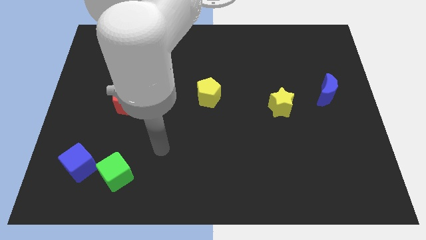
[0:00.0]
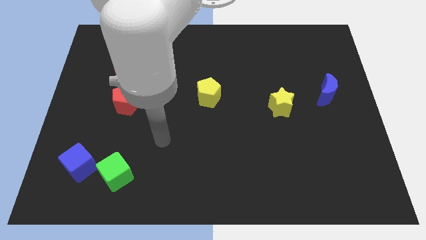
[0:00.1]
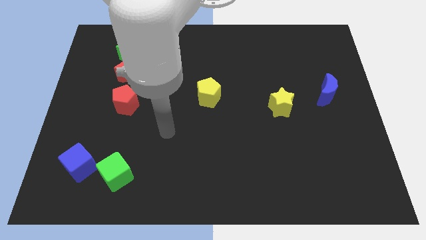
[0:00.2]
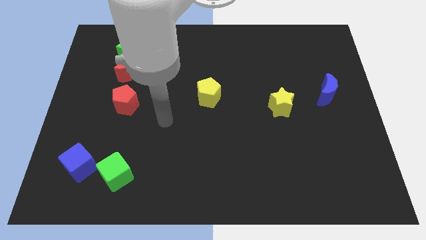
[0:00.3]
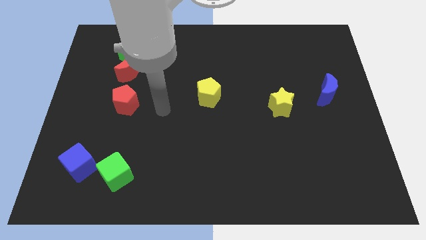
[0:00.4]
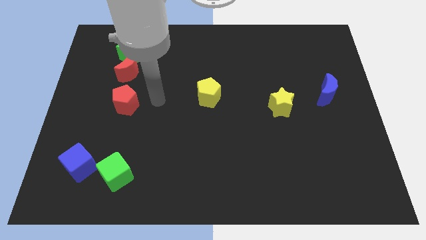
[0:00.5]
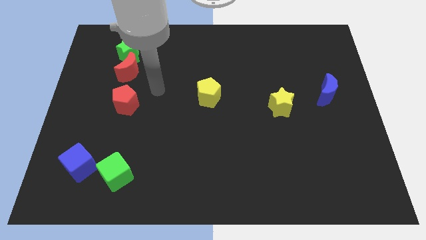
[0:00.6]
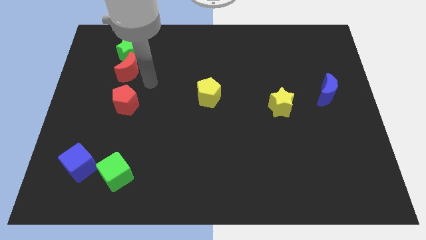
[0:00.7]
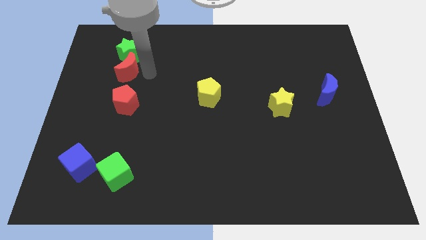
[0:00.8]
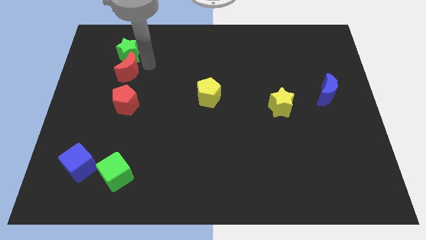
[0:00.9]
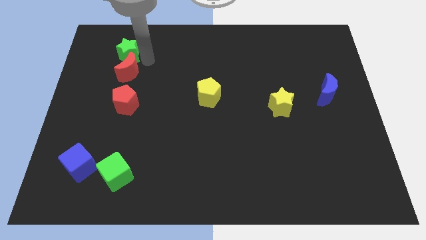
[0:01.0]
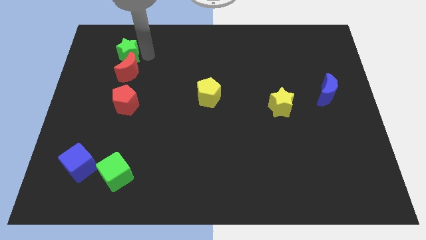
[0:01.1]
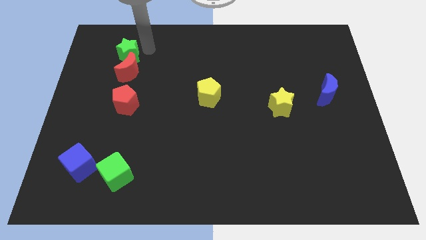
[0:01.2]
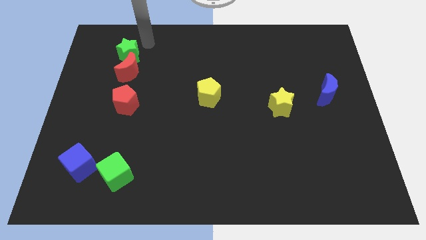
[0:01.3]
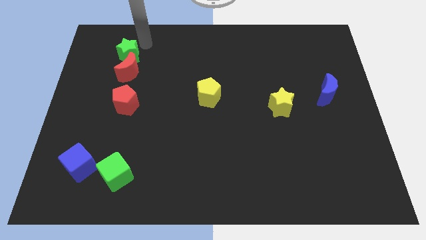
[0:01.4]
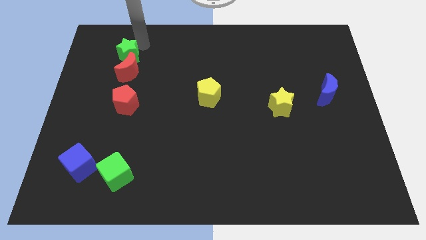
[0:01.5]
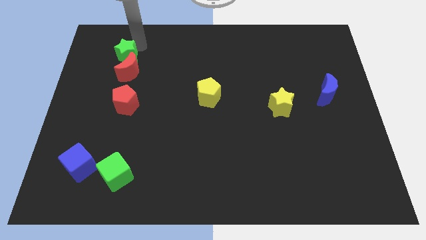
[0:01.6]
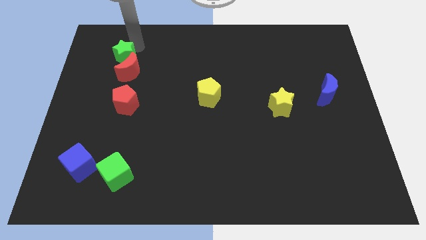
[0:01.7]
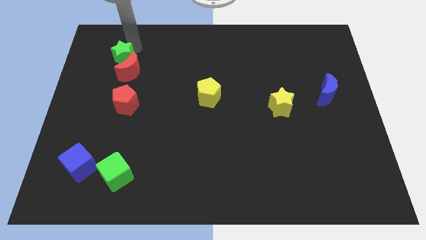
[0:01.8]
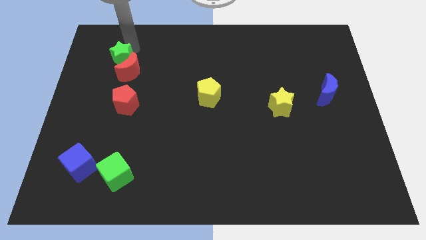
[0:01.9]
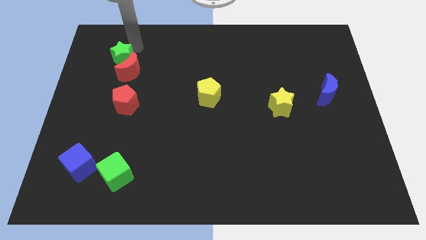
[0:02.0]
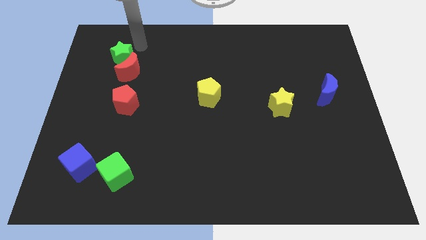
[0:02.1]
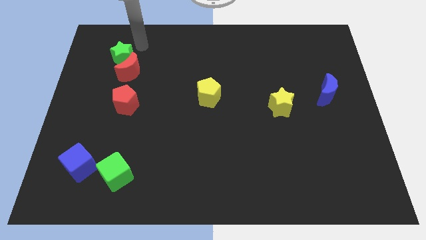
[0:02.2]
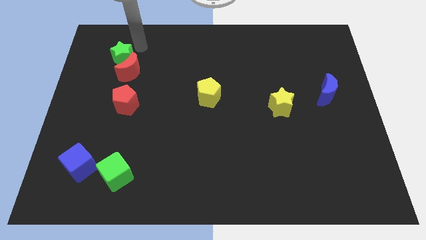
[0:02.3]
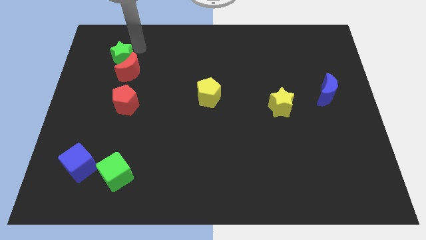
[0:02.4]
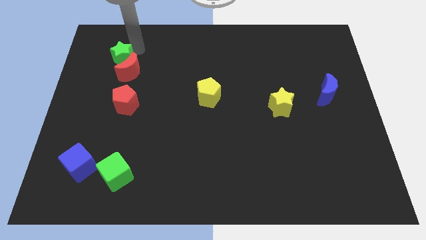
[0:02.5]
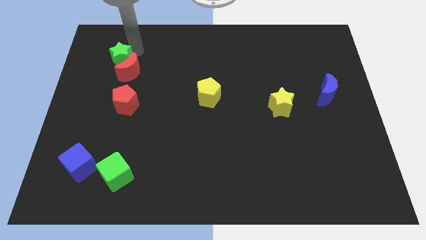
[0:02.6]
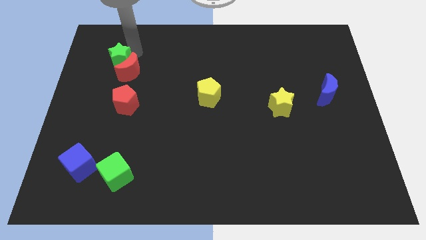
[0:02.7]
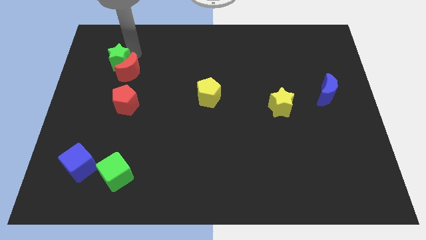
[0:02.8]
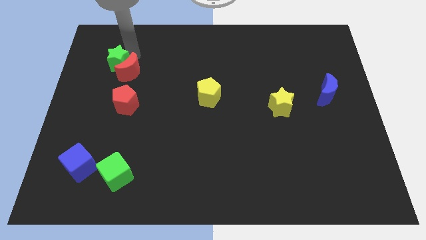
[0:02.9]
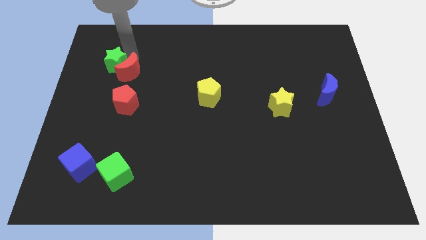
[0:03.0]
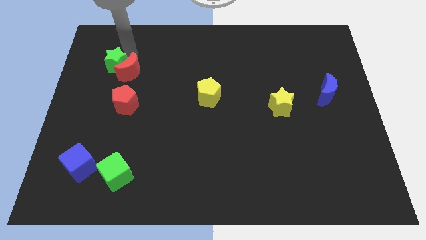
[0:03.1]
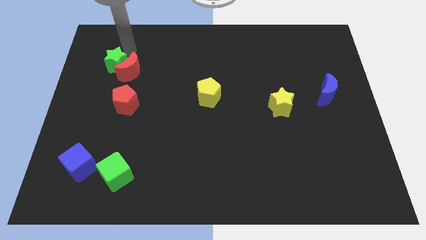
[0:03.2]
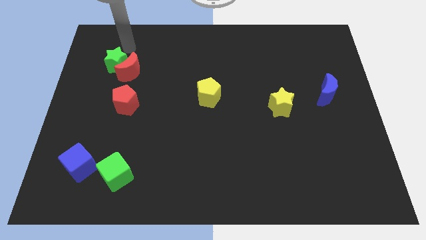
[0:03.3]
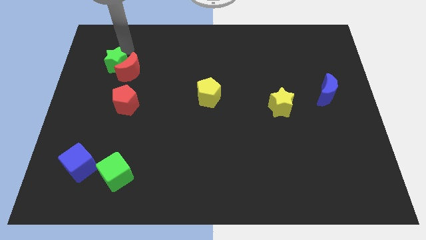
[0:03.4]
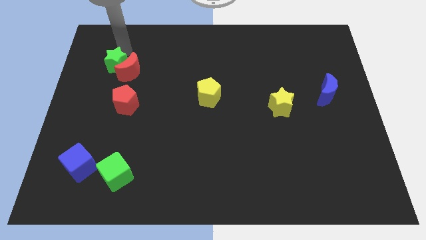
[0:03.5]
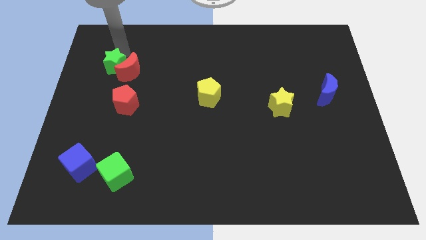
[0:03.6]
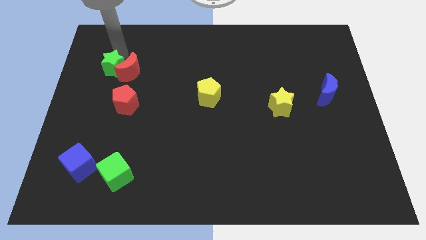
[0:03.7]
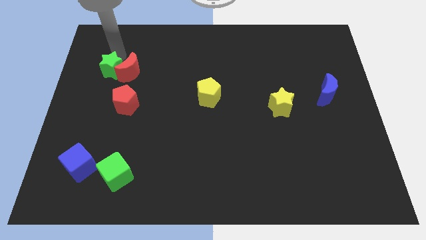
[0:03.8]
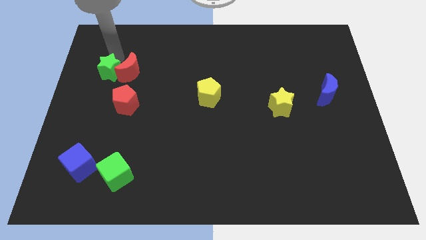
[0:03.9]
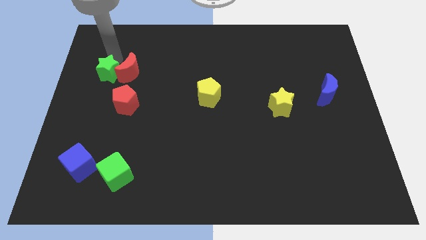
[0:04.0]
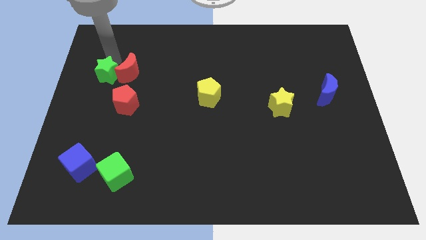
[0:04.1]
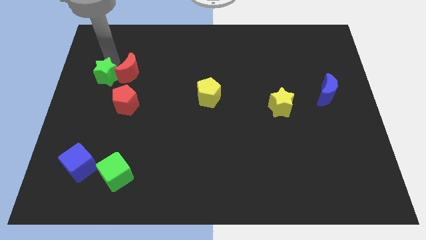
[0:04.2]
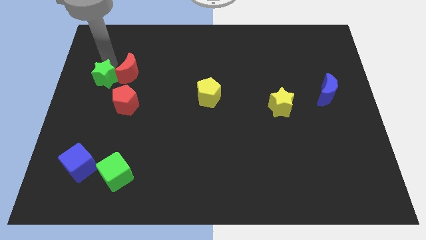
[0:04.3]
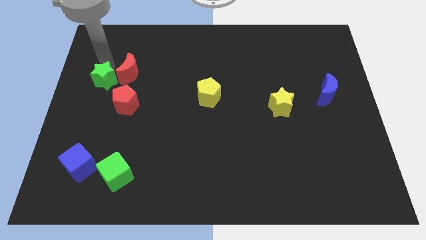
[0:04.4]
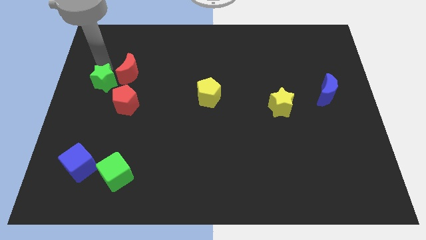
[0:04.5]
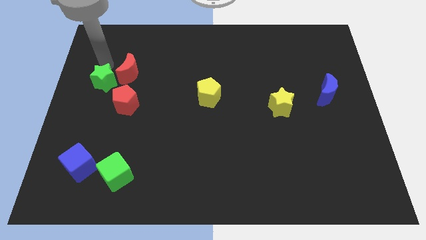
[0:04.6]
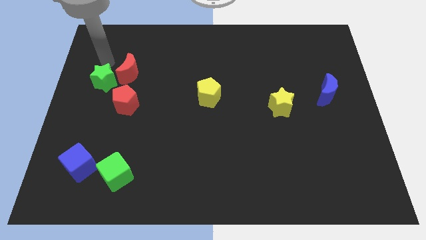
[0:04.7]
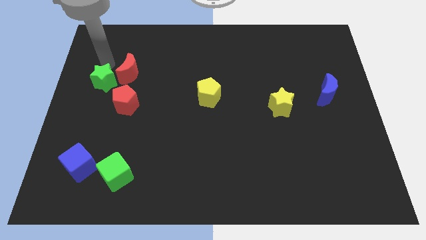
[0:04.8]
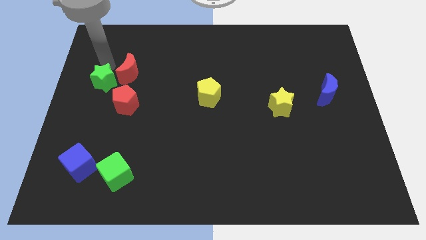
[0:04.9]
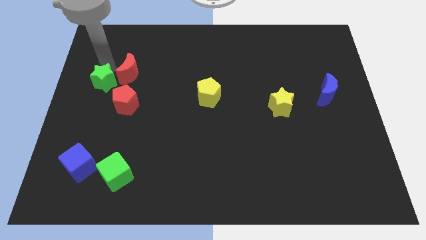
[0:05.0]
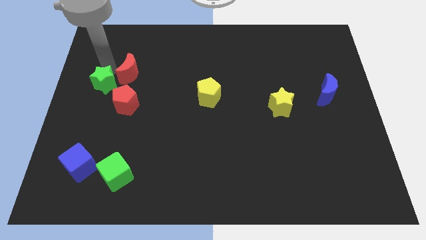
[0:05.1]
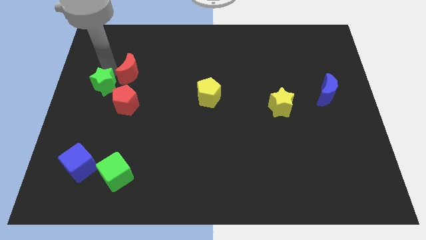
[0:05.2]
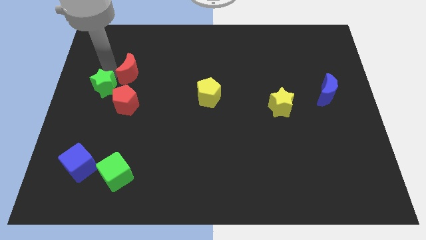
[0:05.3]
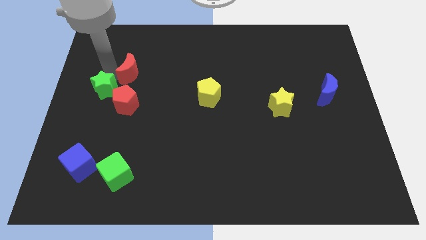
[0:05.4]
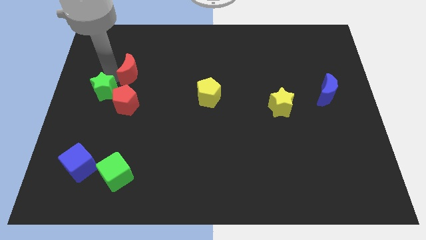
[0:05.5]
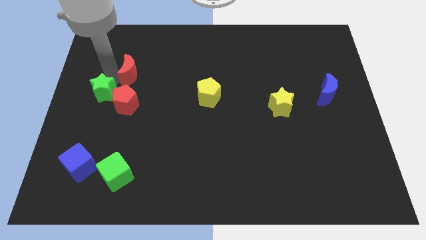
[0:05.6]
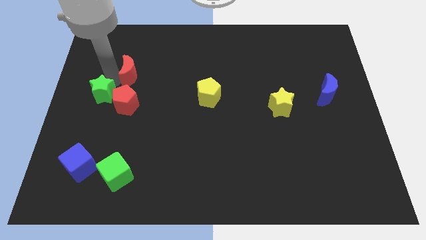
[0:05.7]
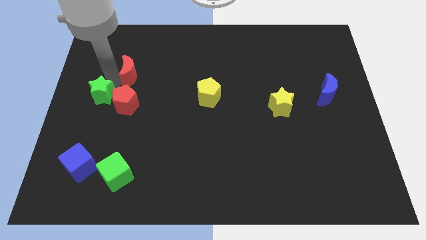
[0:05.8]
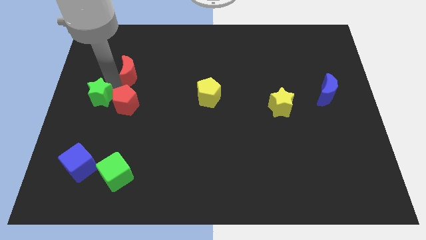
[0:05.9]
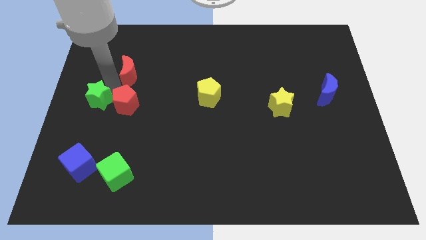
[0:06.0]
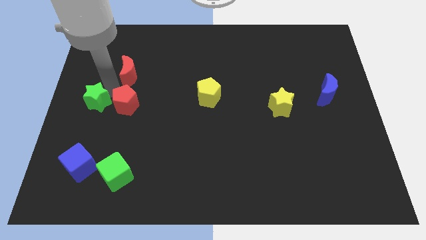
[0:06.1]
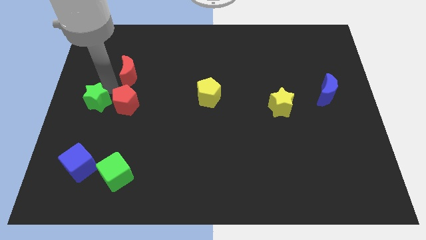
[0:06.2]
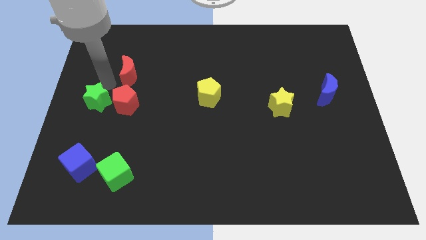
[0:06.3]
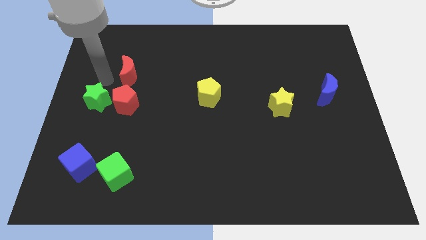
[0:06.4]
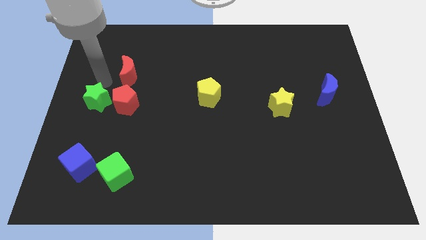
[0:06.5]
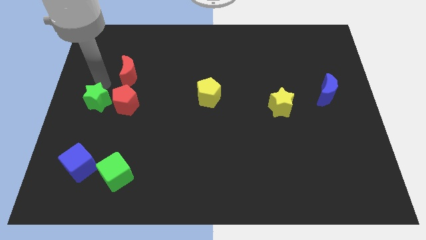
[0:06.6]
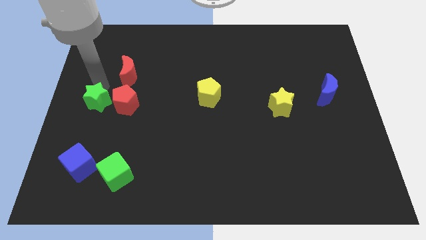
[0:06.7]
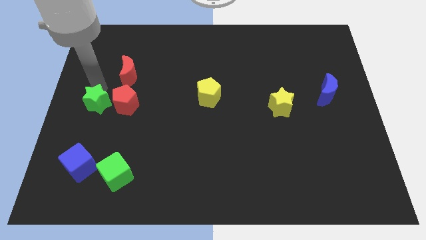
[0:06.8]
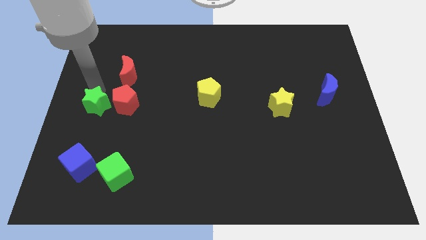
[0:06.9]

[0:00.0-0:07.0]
push the green star above the blue cube

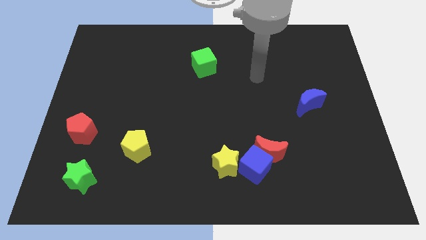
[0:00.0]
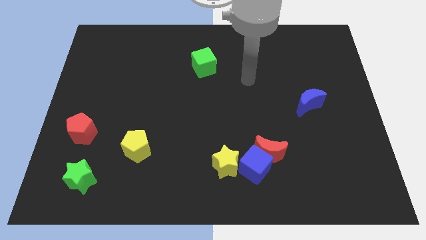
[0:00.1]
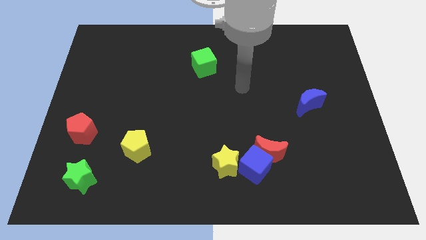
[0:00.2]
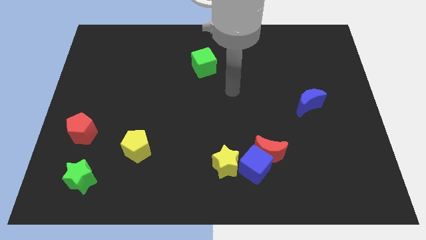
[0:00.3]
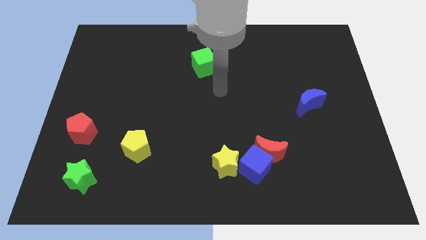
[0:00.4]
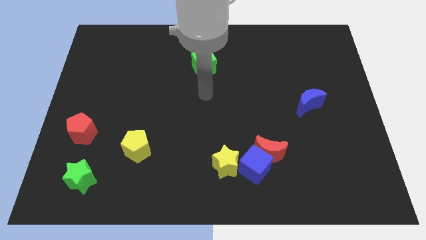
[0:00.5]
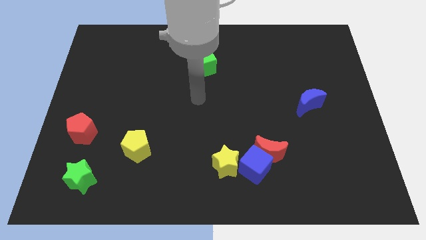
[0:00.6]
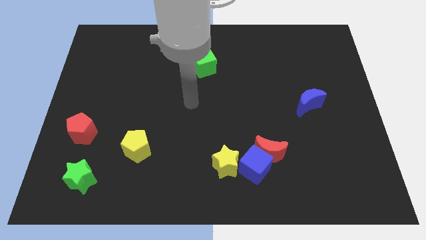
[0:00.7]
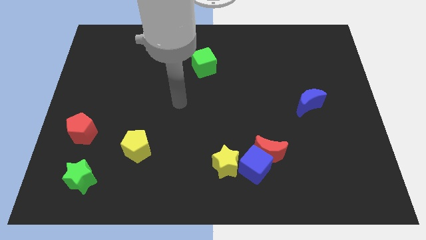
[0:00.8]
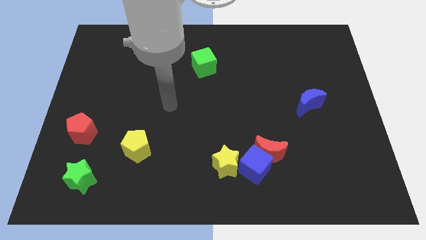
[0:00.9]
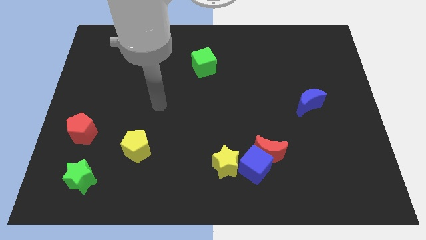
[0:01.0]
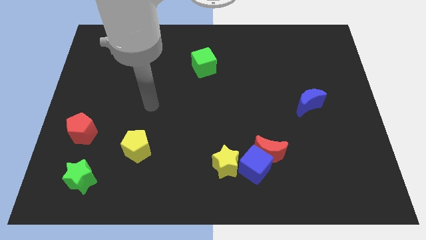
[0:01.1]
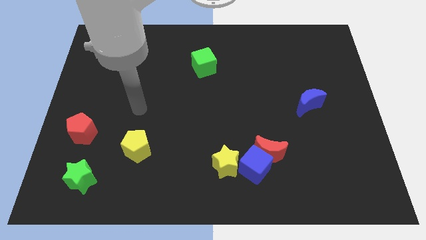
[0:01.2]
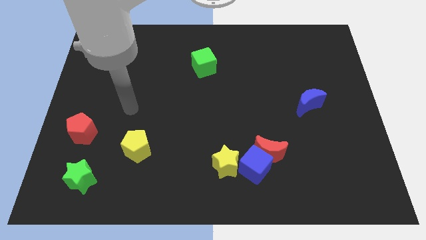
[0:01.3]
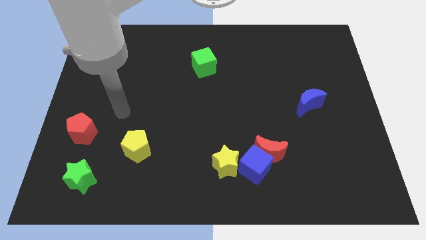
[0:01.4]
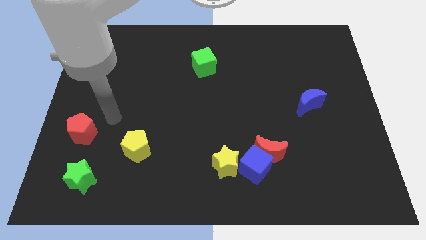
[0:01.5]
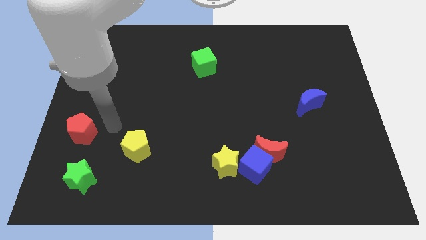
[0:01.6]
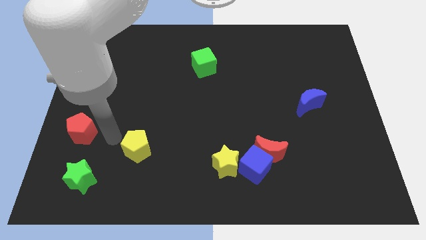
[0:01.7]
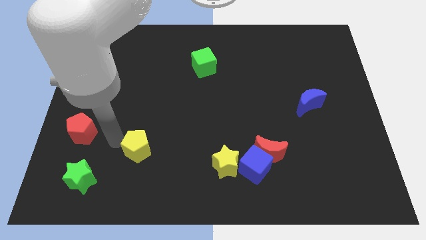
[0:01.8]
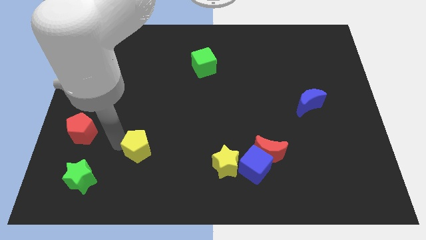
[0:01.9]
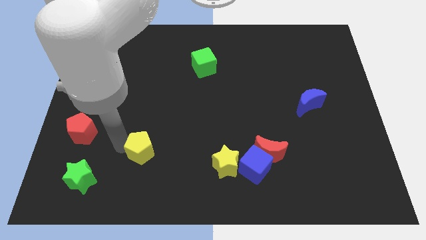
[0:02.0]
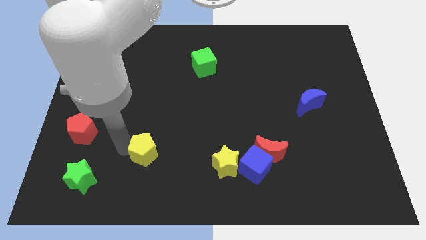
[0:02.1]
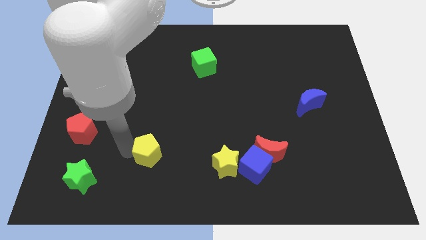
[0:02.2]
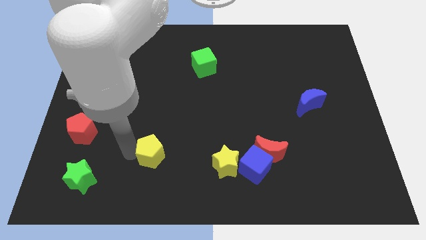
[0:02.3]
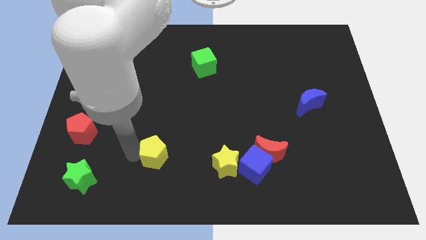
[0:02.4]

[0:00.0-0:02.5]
push the yellow pentagon left of the yellow star
